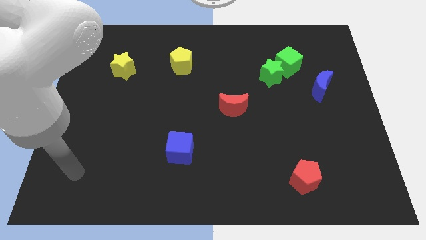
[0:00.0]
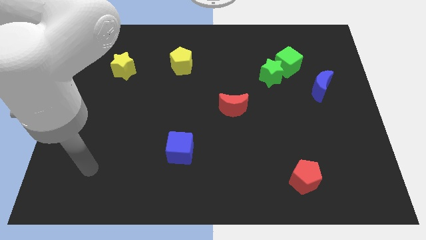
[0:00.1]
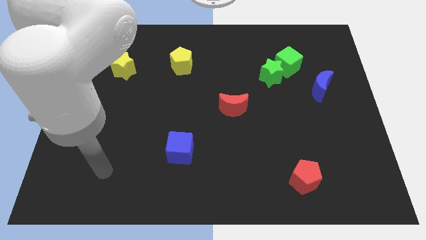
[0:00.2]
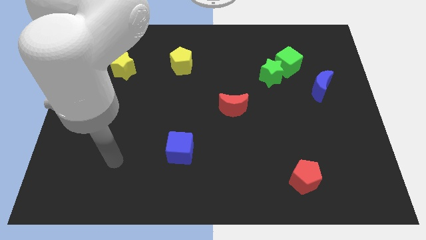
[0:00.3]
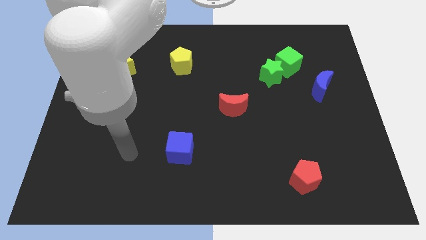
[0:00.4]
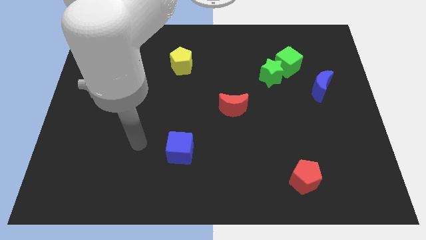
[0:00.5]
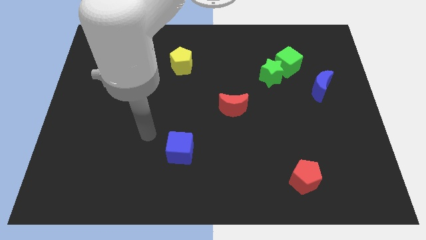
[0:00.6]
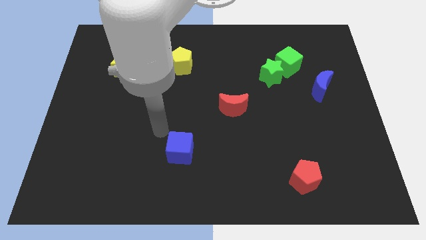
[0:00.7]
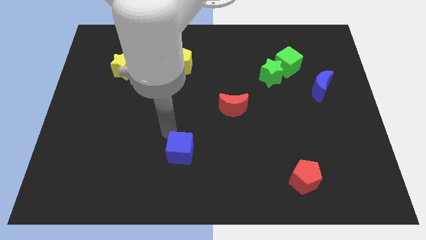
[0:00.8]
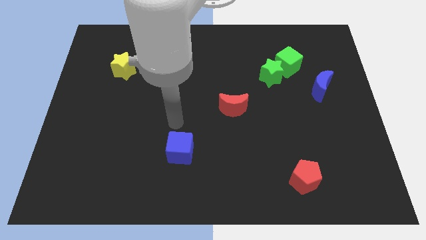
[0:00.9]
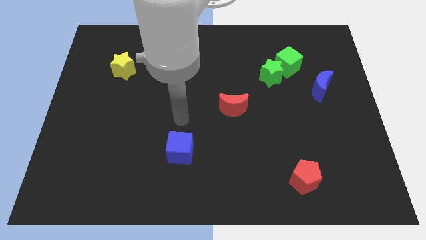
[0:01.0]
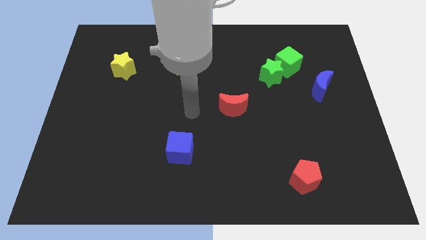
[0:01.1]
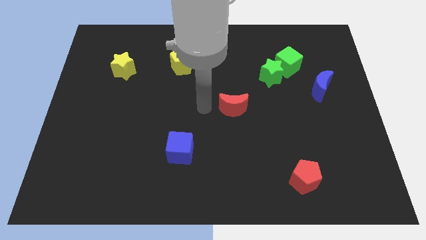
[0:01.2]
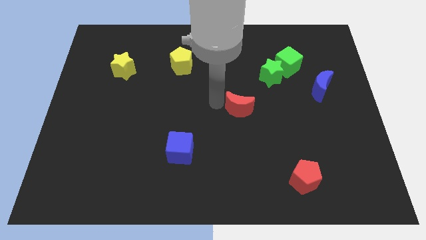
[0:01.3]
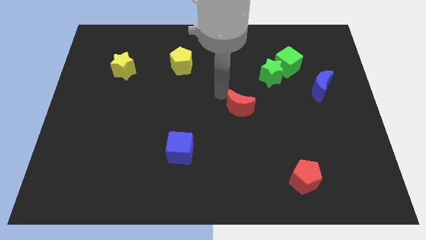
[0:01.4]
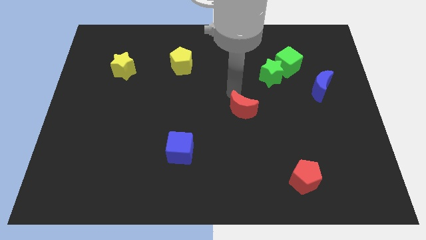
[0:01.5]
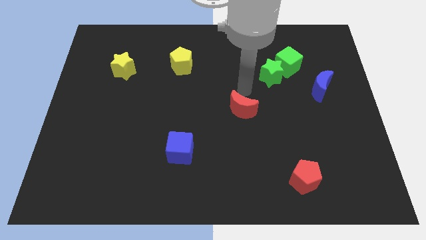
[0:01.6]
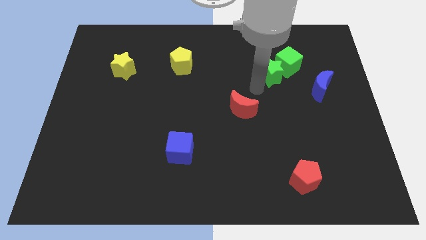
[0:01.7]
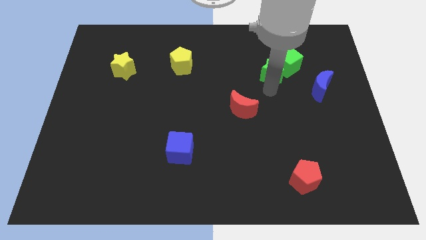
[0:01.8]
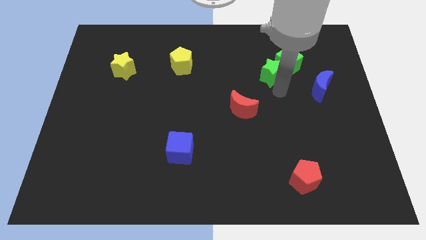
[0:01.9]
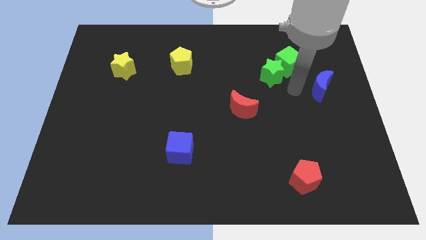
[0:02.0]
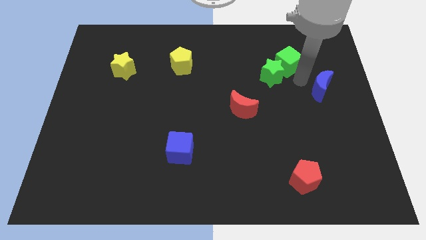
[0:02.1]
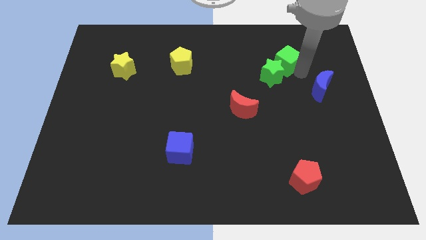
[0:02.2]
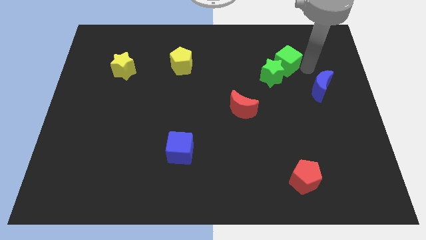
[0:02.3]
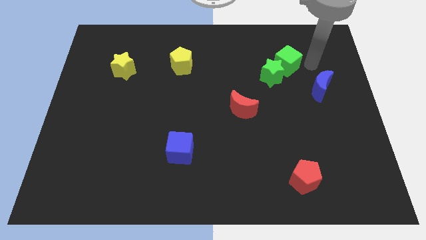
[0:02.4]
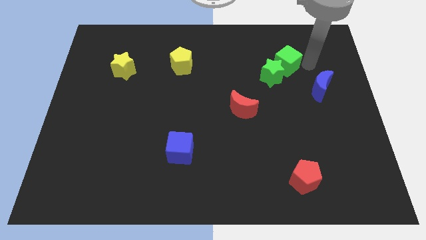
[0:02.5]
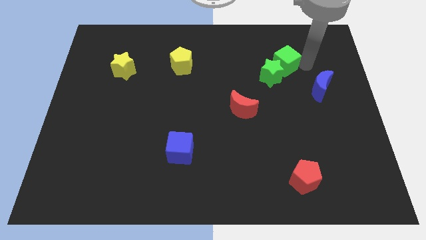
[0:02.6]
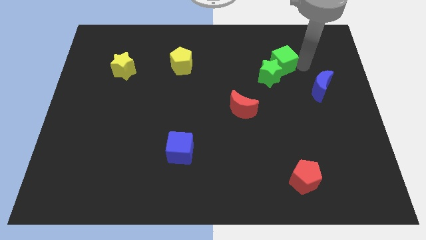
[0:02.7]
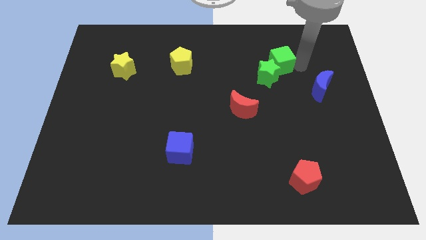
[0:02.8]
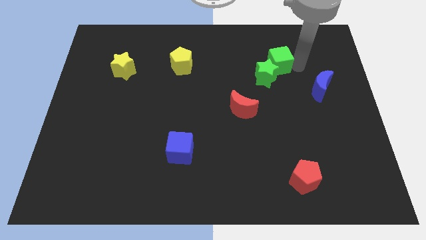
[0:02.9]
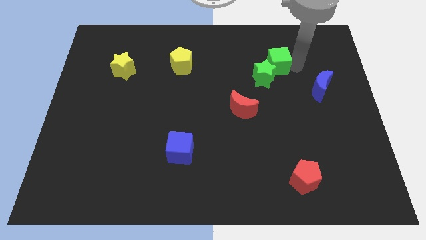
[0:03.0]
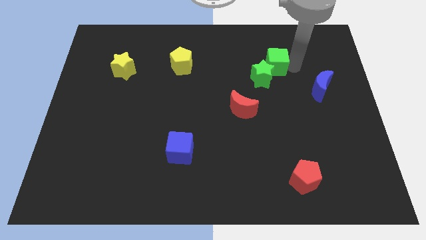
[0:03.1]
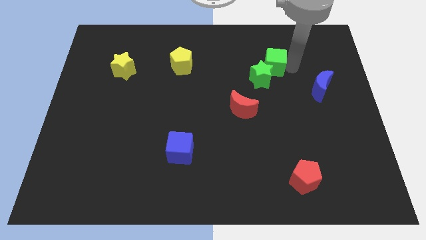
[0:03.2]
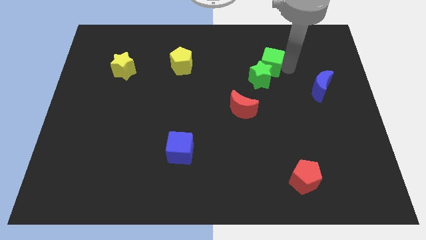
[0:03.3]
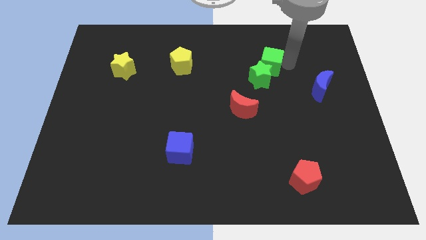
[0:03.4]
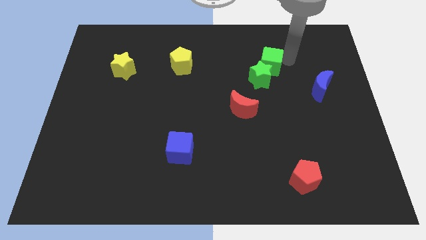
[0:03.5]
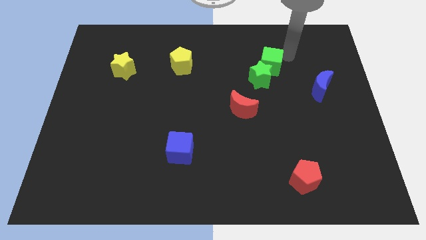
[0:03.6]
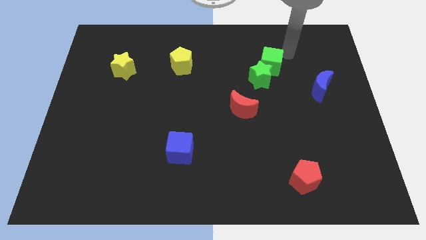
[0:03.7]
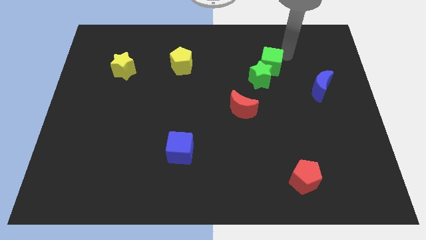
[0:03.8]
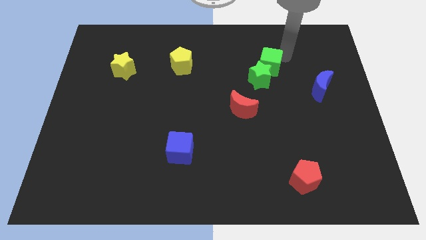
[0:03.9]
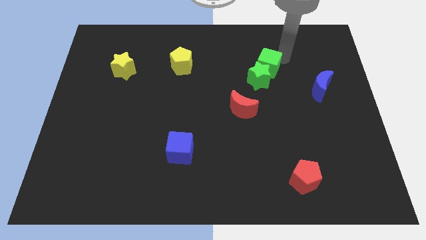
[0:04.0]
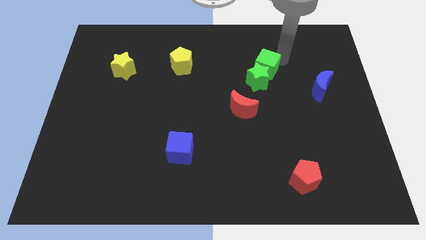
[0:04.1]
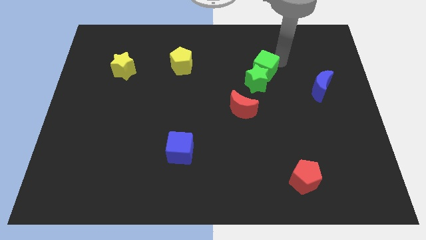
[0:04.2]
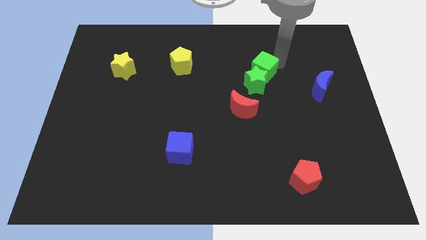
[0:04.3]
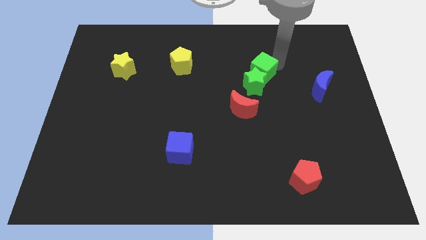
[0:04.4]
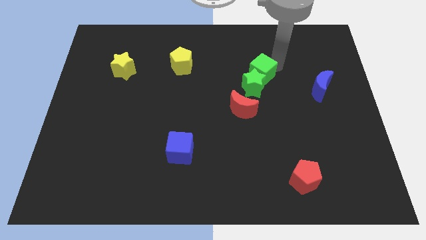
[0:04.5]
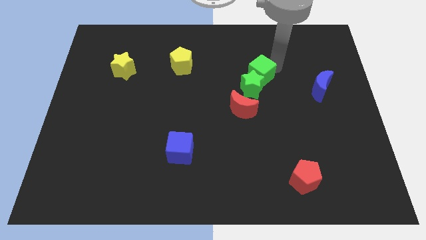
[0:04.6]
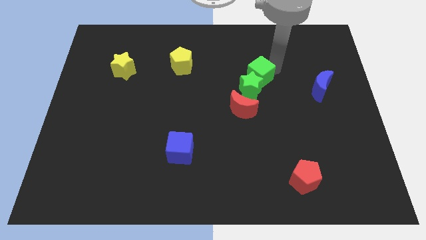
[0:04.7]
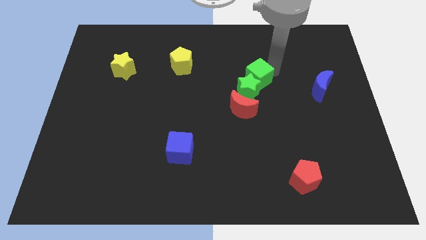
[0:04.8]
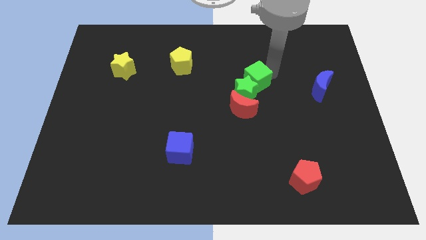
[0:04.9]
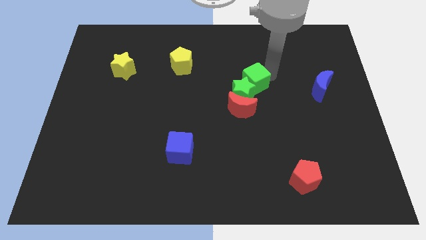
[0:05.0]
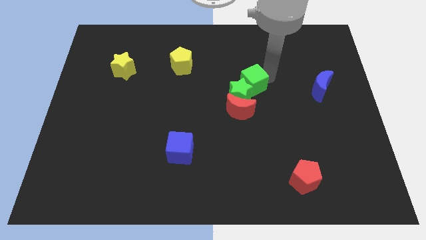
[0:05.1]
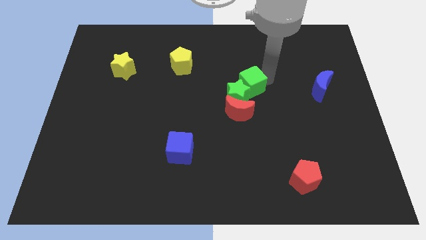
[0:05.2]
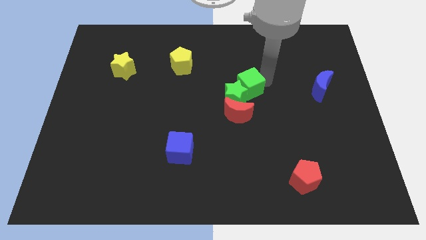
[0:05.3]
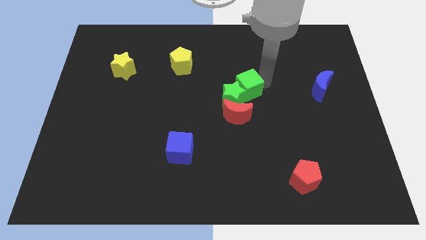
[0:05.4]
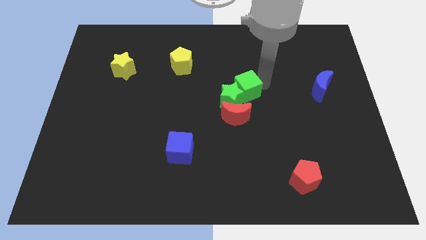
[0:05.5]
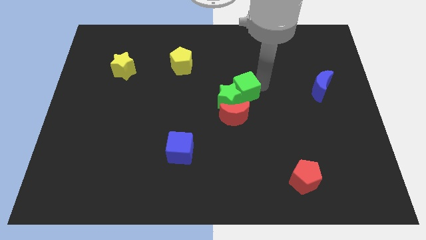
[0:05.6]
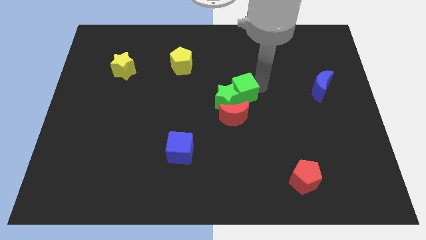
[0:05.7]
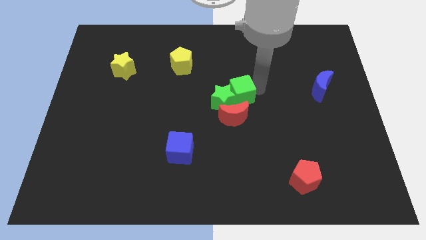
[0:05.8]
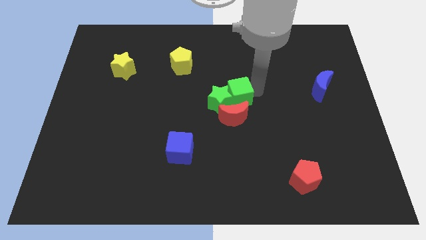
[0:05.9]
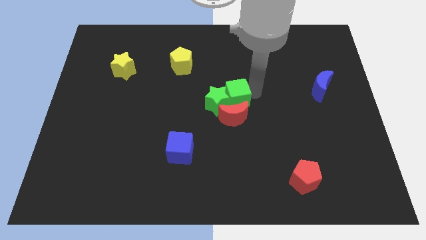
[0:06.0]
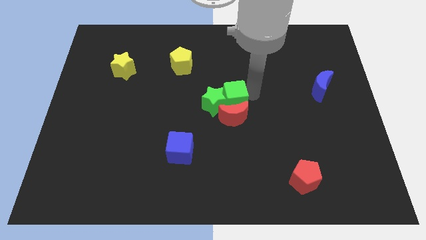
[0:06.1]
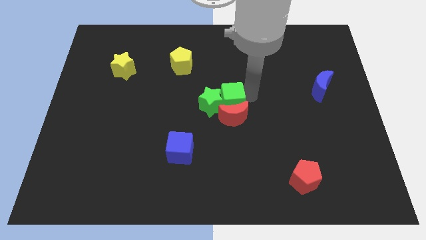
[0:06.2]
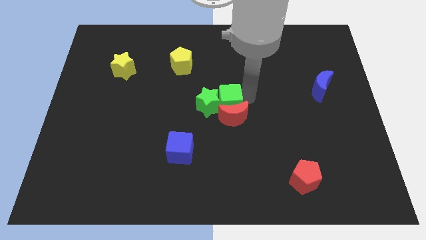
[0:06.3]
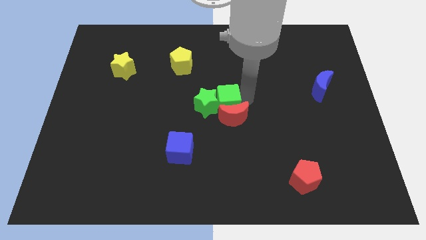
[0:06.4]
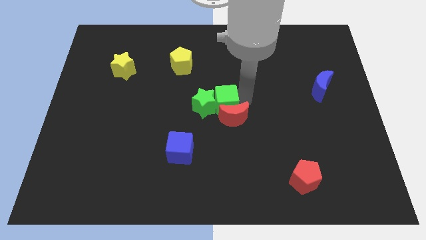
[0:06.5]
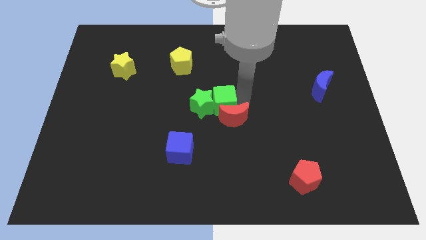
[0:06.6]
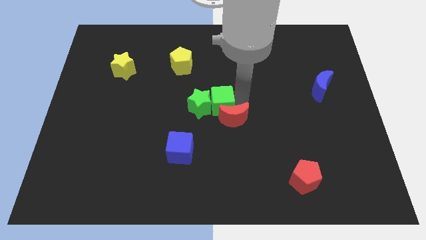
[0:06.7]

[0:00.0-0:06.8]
slide the green cube just left of the red moon
